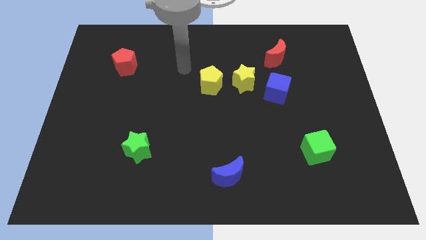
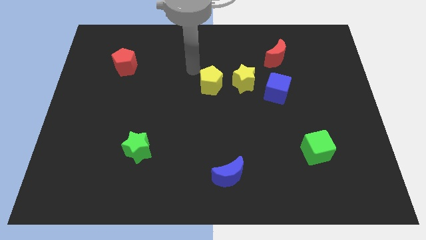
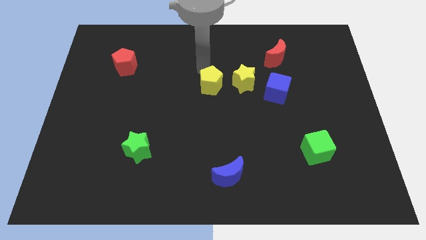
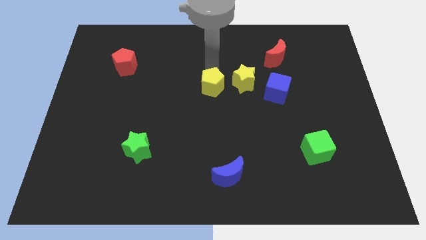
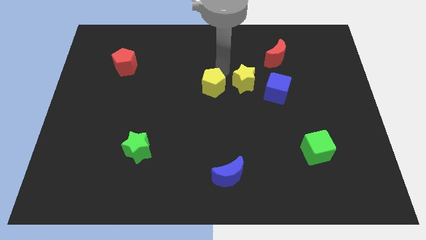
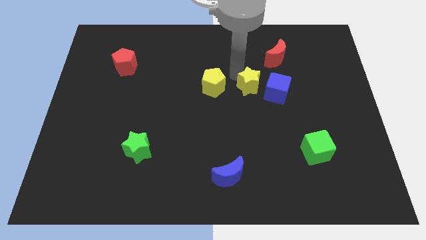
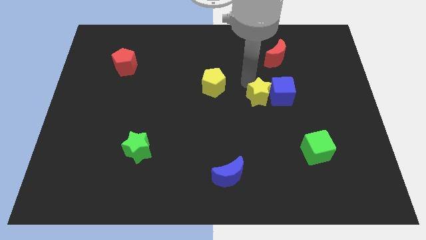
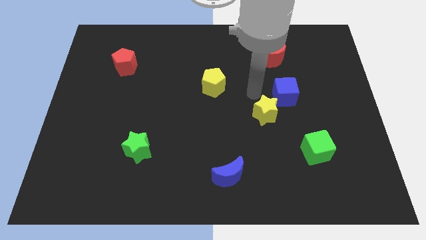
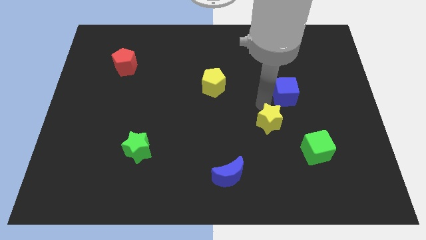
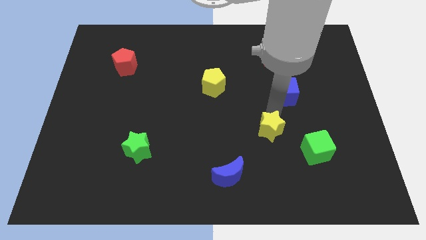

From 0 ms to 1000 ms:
separate the blue cube from the yellow star

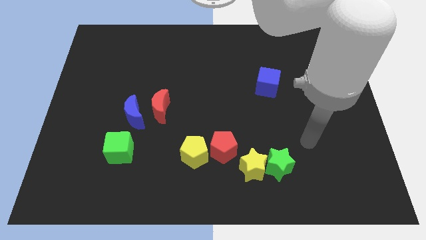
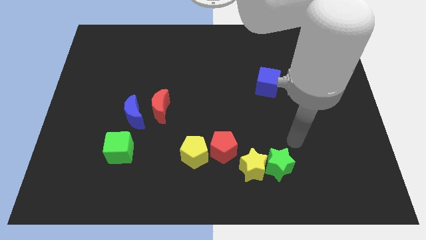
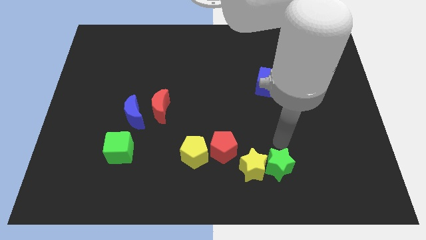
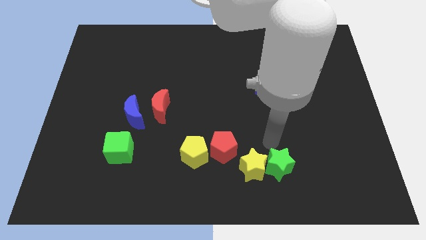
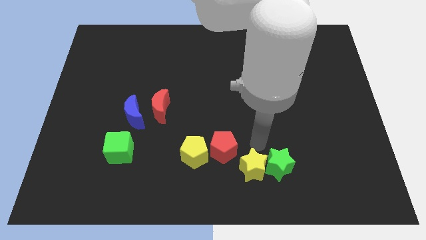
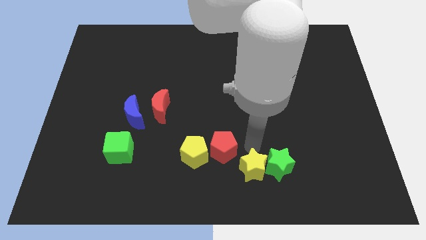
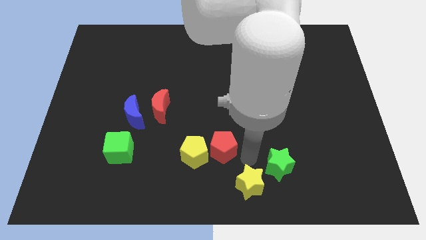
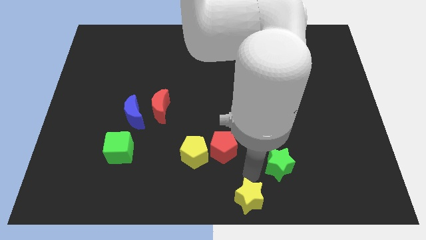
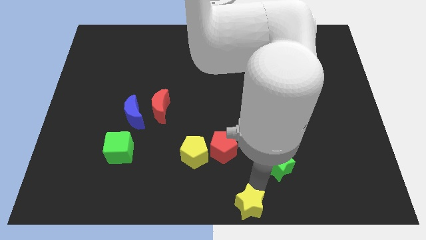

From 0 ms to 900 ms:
move the green star away from the yellow star

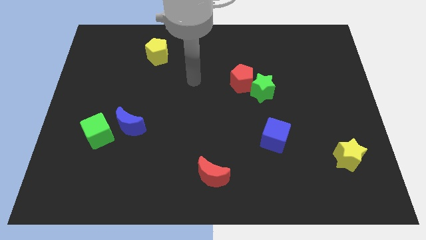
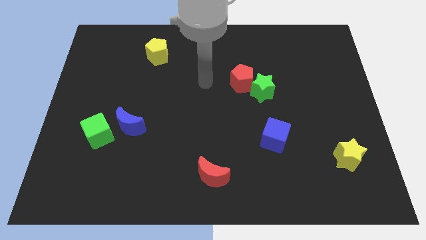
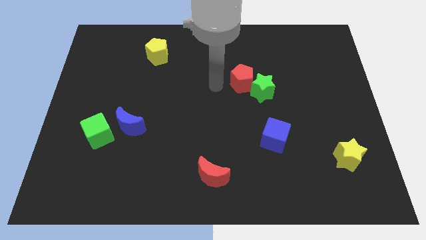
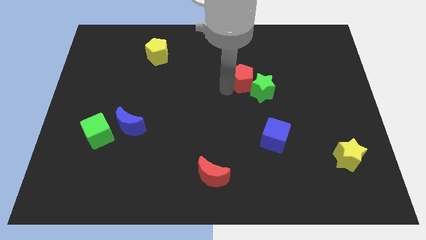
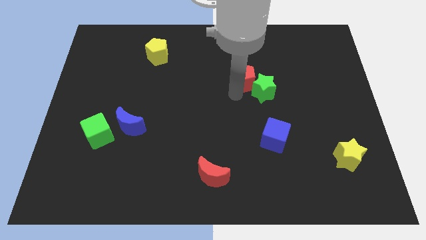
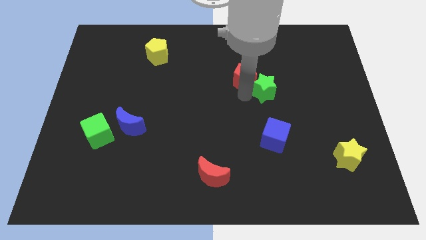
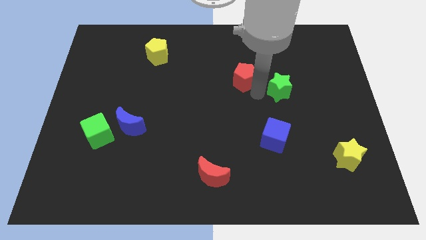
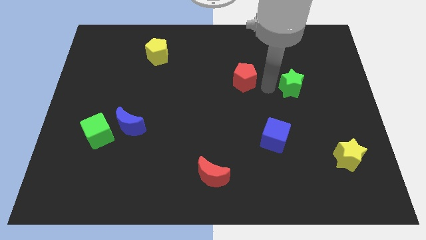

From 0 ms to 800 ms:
move the red pentagon away from the green star

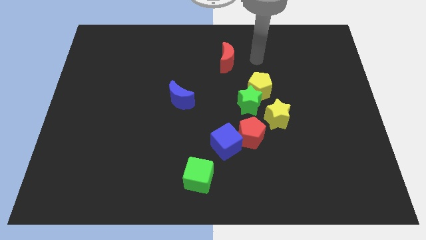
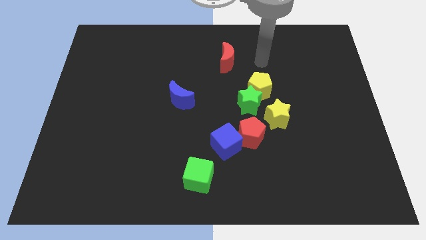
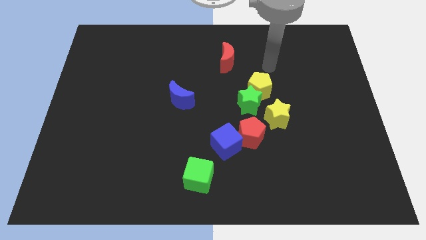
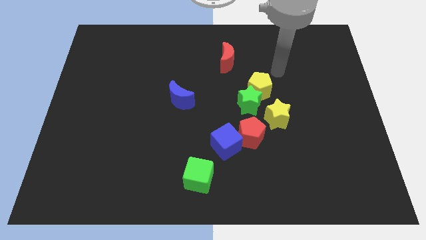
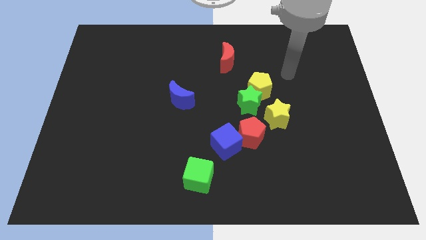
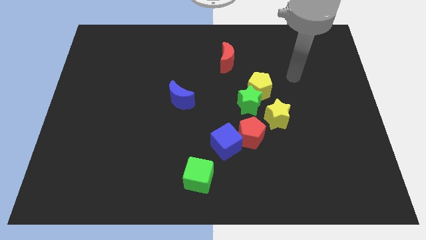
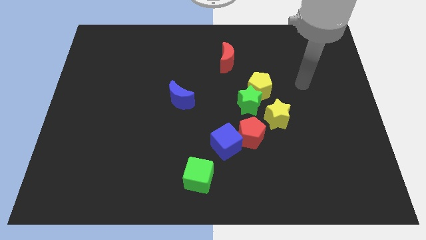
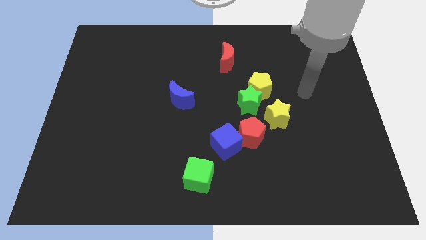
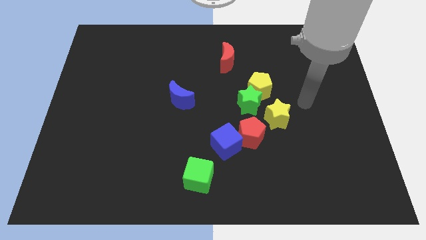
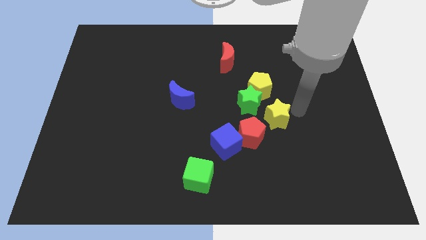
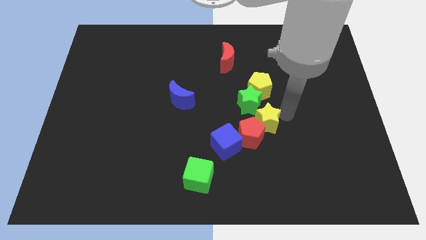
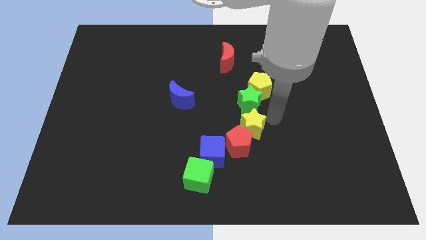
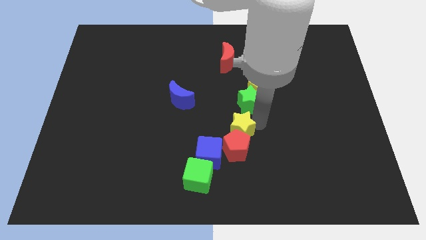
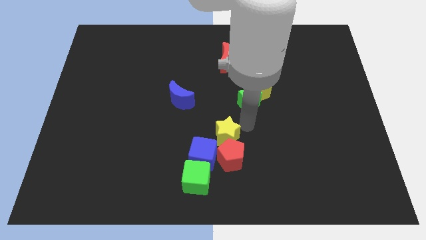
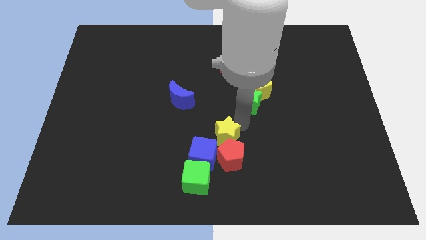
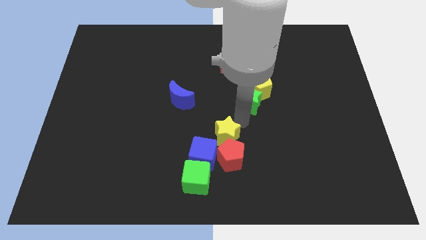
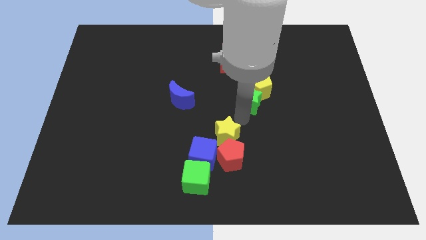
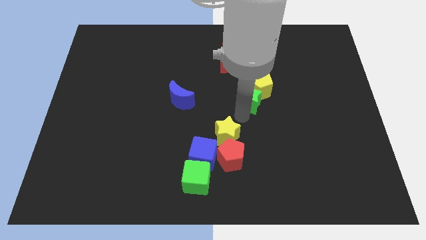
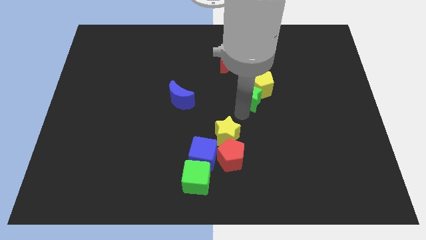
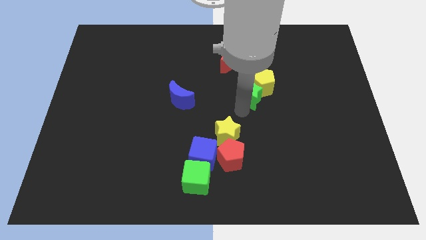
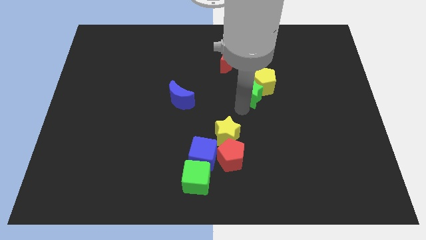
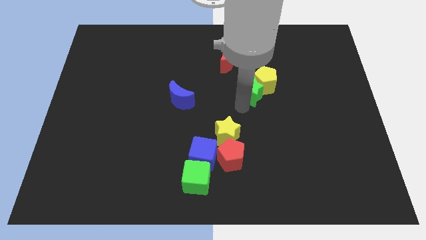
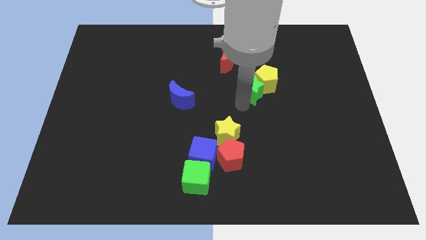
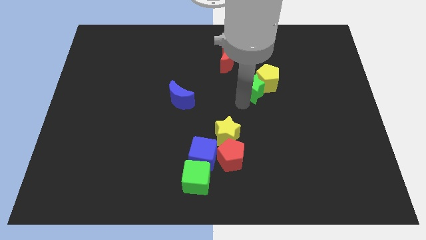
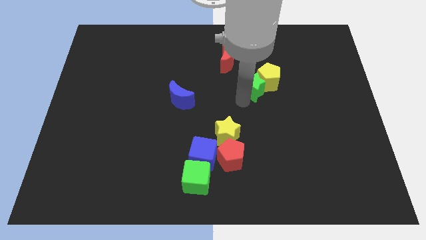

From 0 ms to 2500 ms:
separate the green star from the yellow pentagon, yellow star, and red pentagon

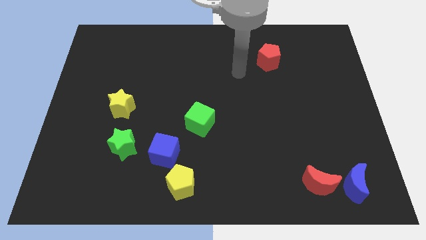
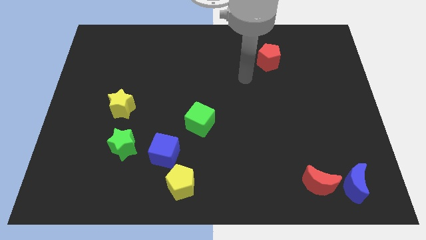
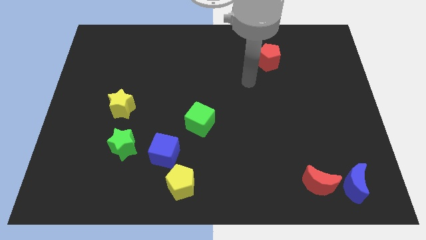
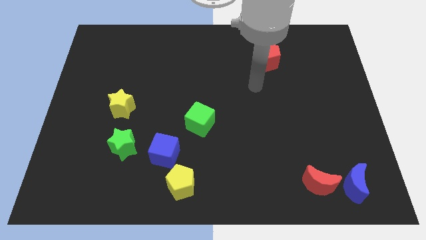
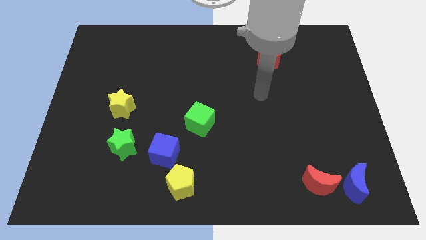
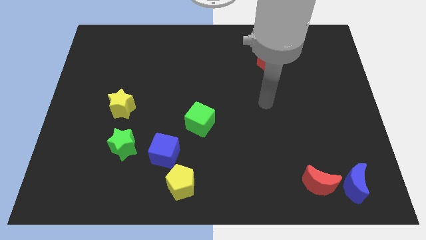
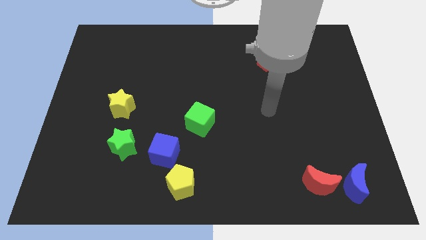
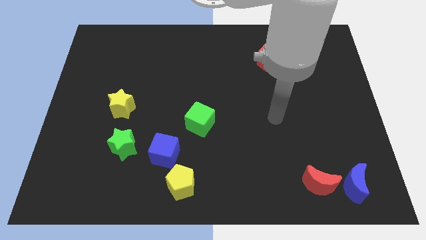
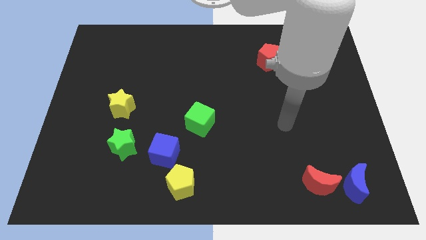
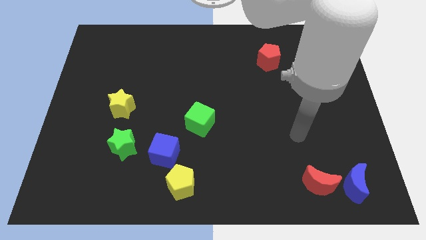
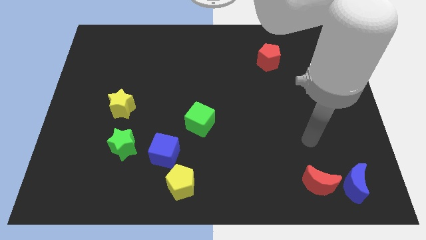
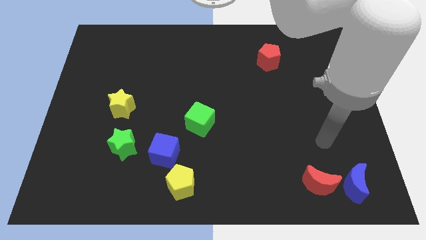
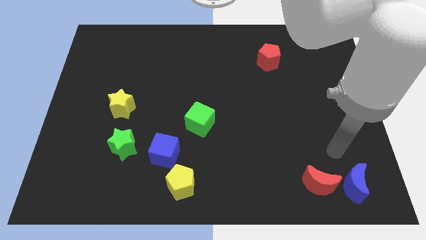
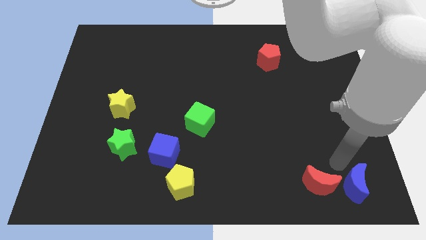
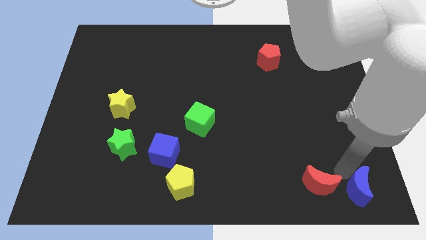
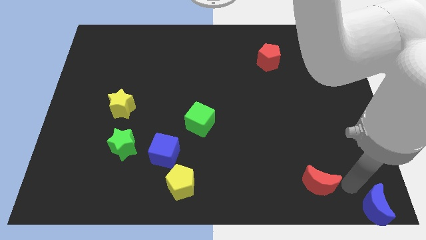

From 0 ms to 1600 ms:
move the red moon away from the blue moon

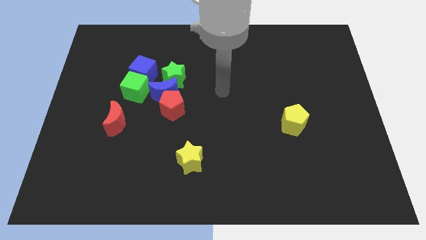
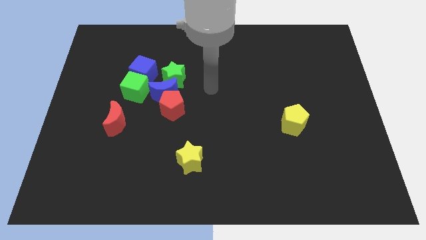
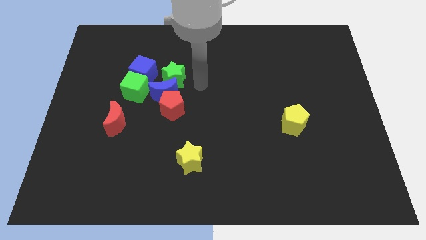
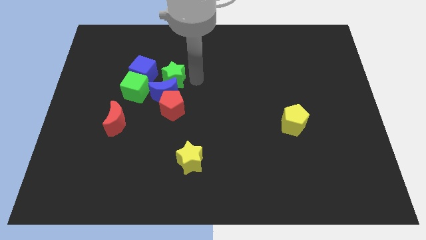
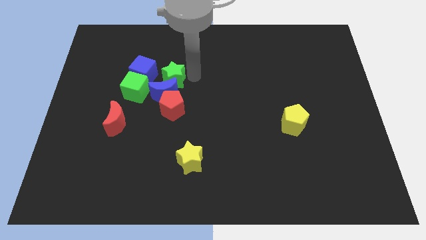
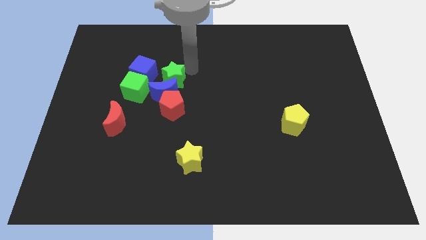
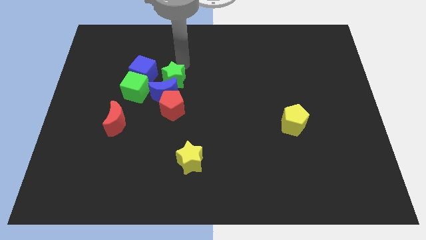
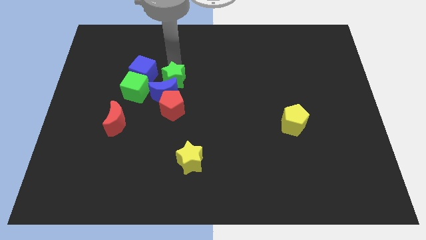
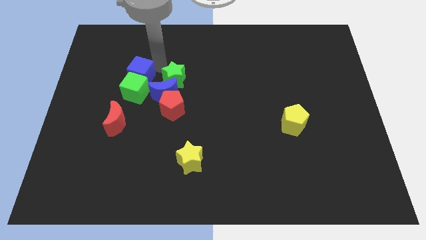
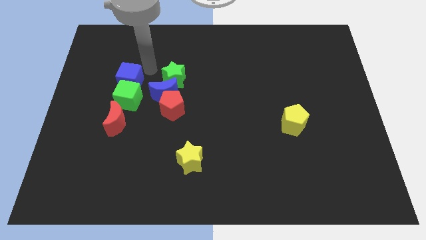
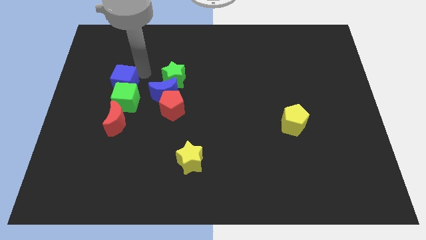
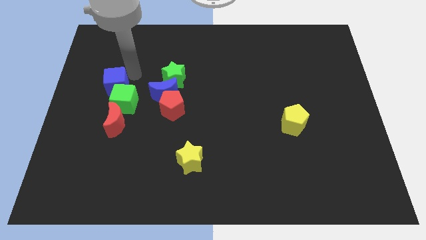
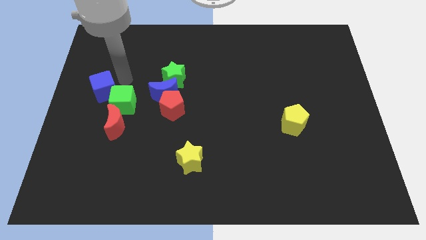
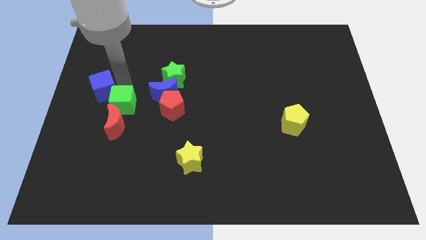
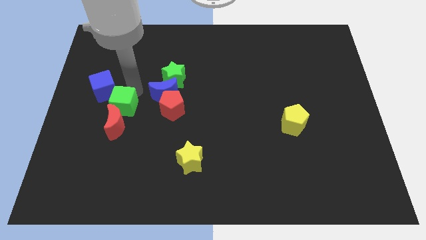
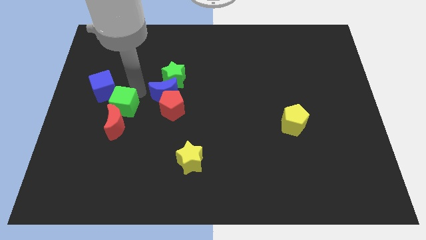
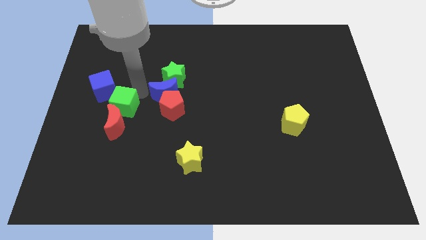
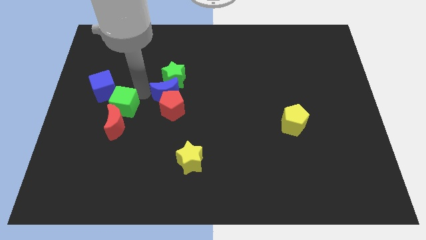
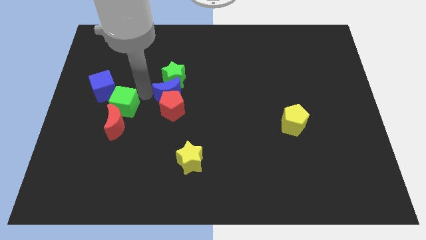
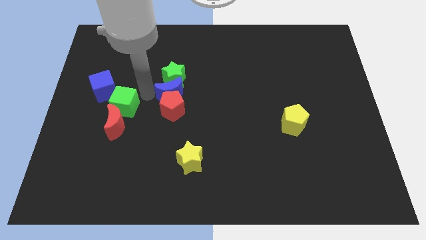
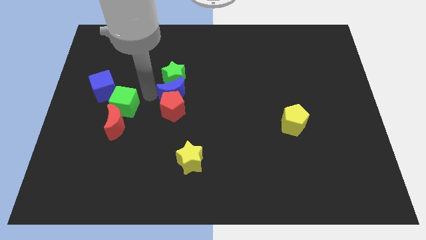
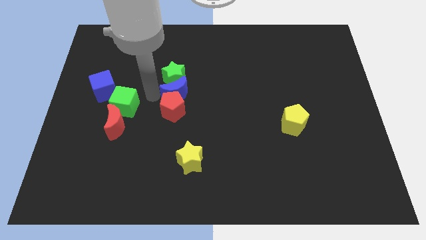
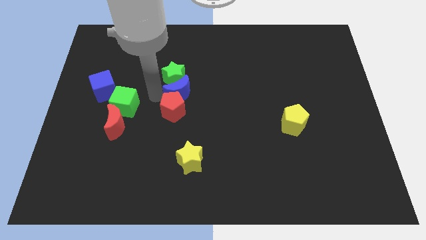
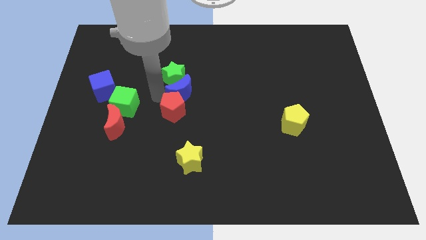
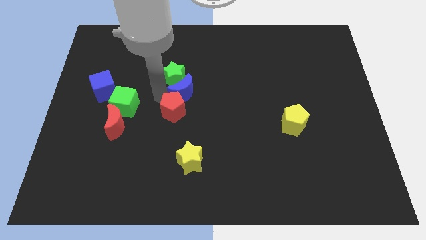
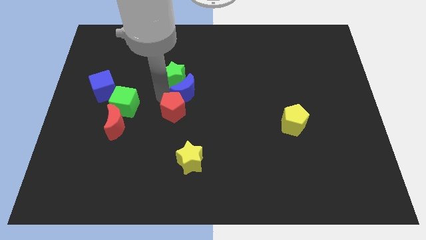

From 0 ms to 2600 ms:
pull the blue moon apart from the group
